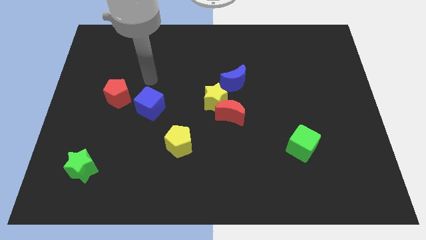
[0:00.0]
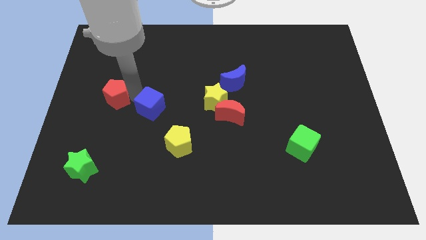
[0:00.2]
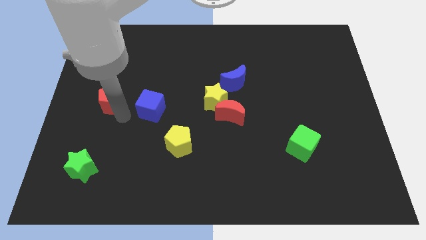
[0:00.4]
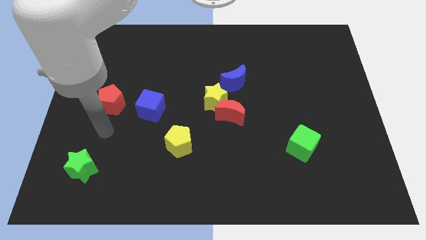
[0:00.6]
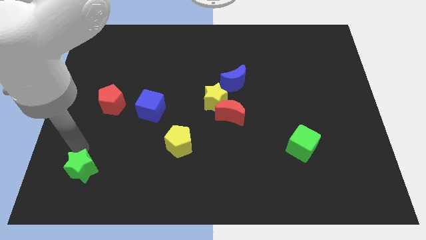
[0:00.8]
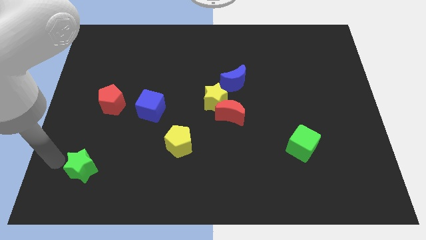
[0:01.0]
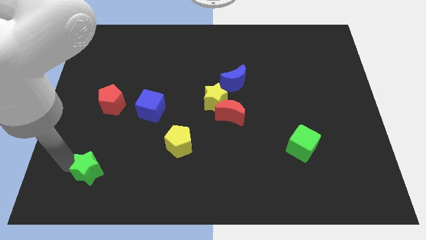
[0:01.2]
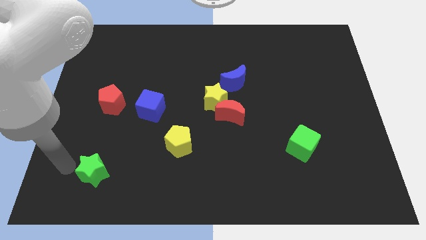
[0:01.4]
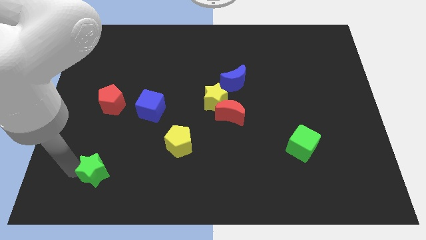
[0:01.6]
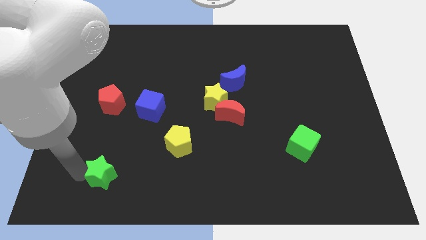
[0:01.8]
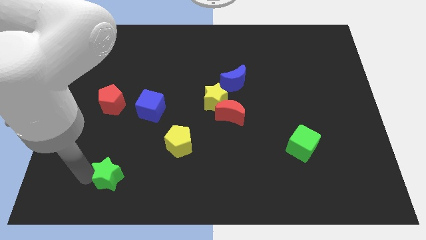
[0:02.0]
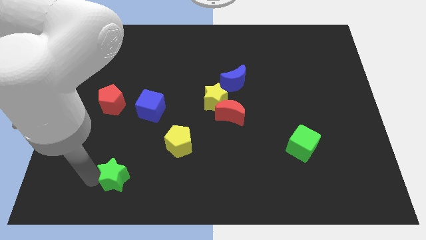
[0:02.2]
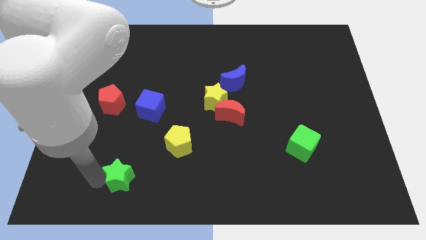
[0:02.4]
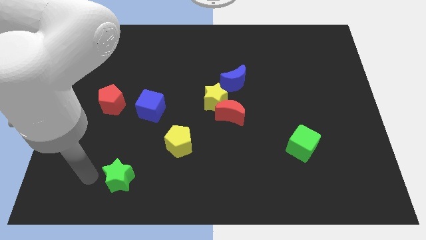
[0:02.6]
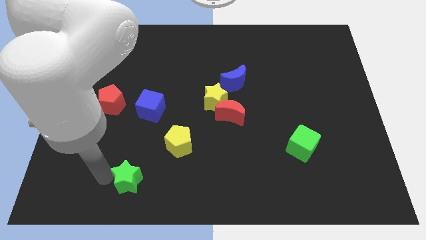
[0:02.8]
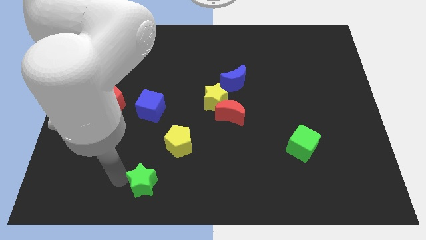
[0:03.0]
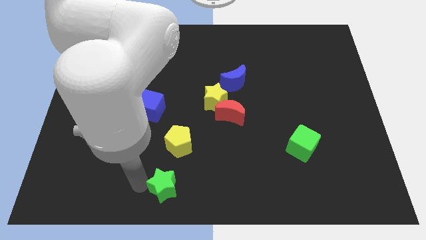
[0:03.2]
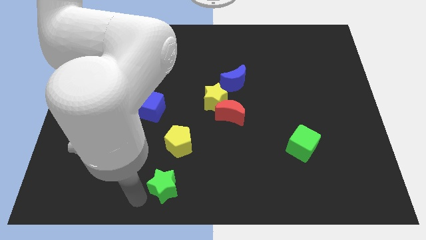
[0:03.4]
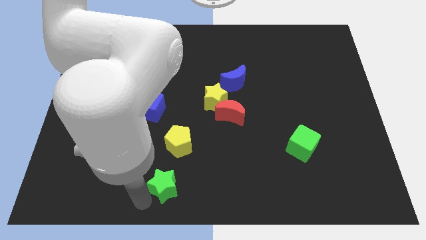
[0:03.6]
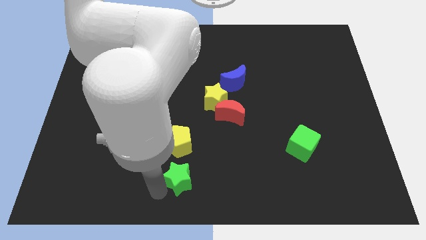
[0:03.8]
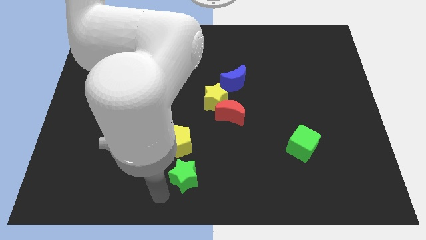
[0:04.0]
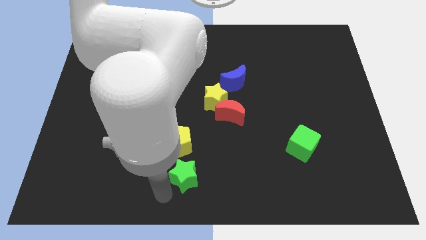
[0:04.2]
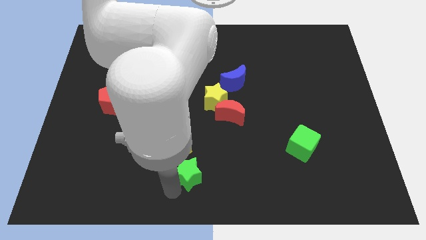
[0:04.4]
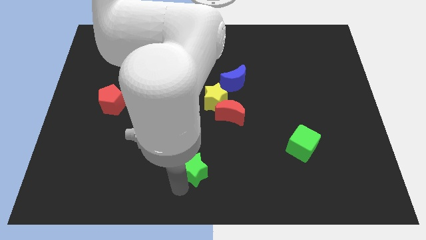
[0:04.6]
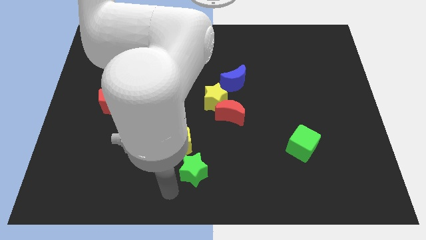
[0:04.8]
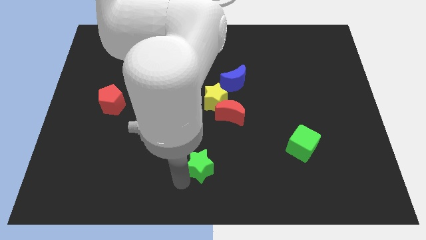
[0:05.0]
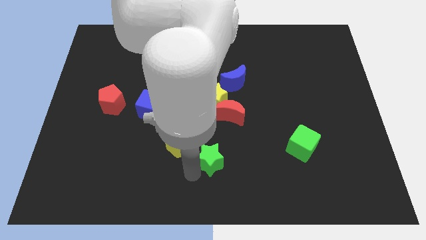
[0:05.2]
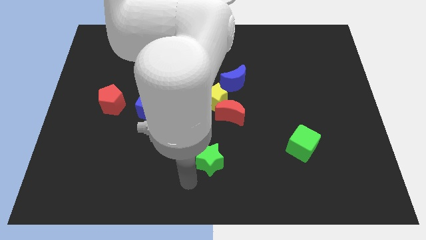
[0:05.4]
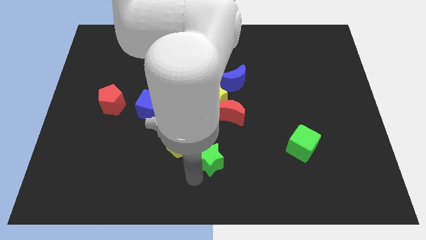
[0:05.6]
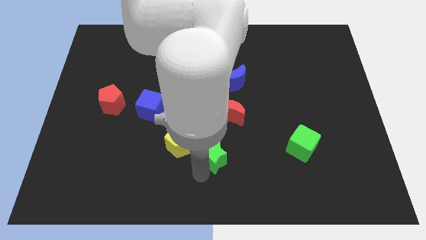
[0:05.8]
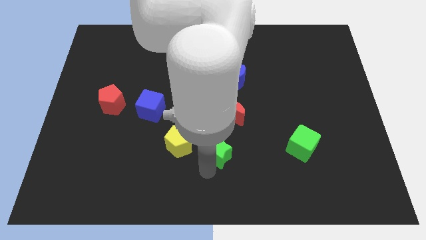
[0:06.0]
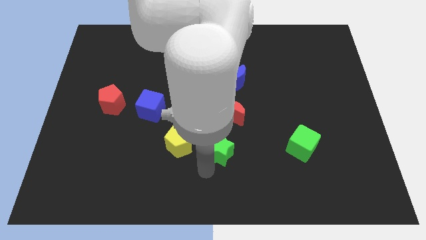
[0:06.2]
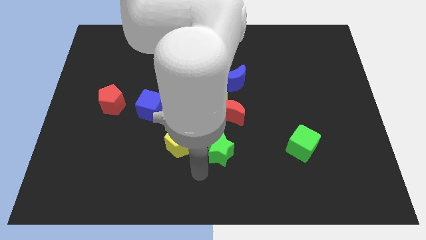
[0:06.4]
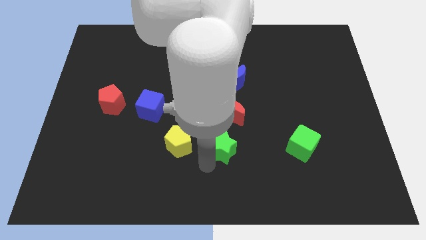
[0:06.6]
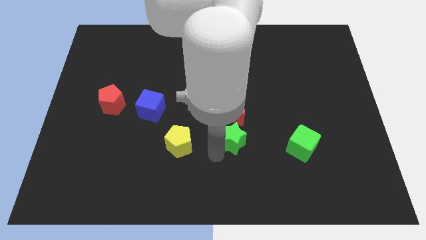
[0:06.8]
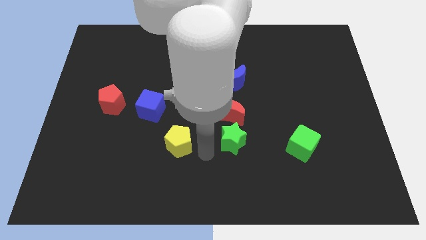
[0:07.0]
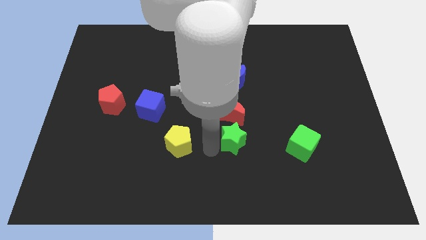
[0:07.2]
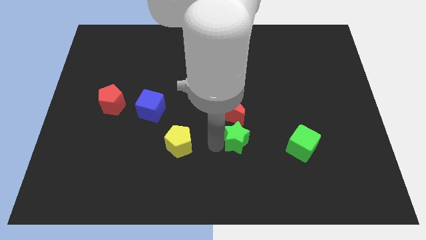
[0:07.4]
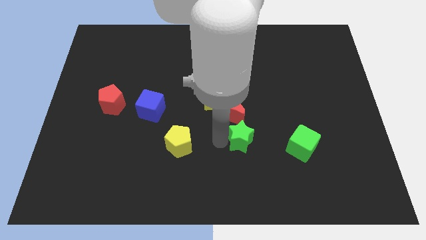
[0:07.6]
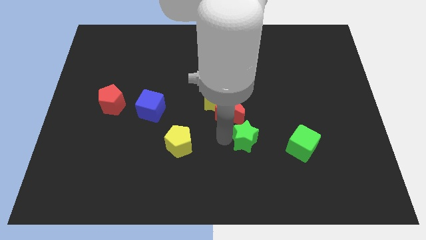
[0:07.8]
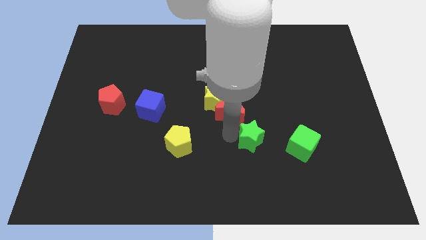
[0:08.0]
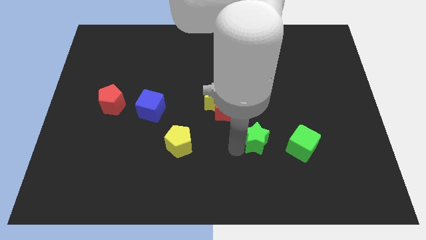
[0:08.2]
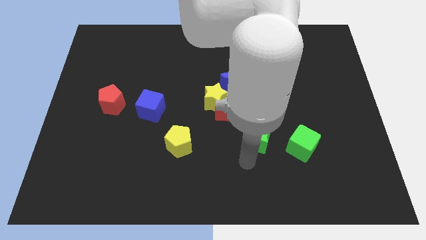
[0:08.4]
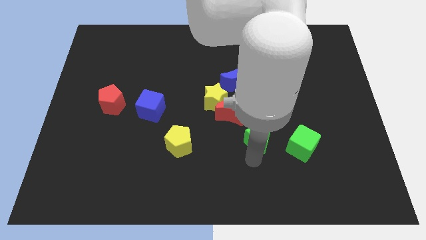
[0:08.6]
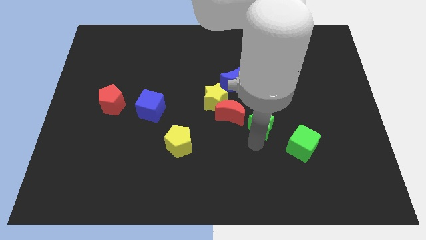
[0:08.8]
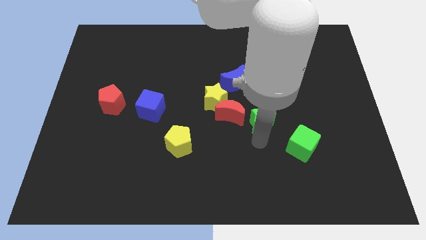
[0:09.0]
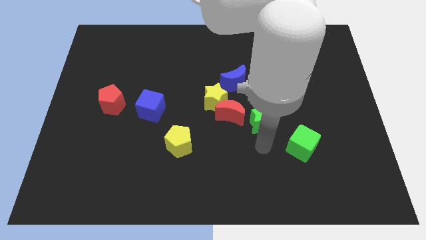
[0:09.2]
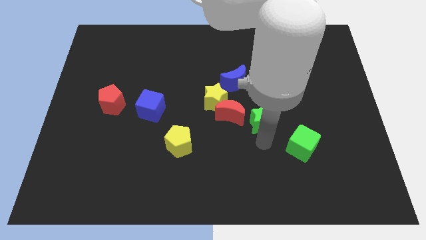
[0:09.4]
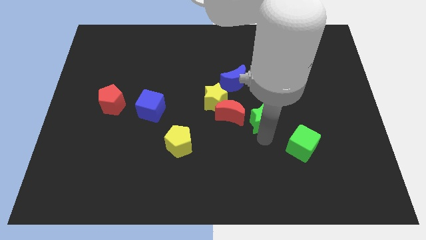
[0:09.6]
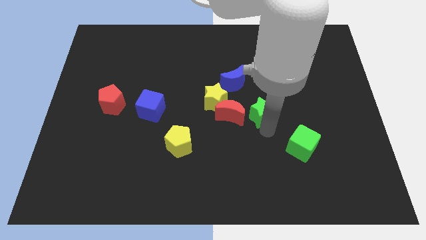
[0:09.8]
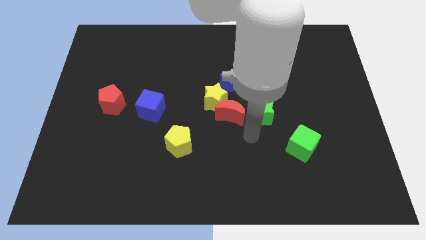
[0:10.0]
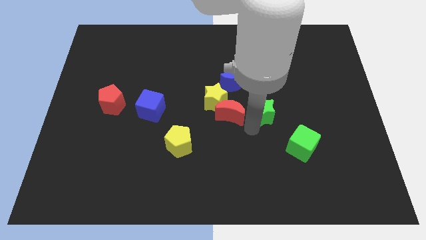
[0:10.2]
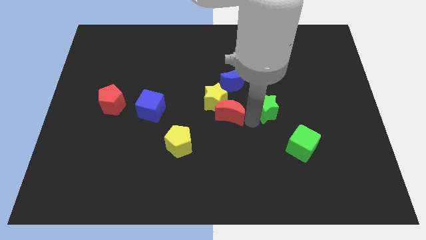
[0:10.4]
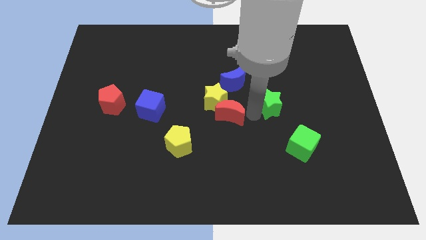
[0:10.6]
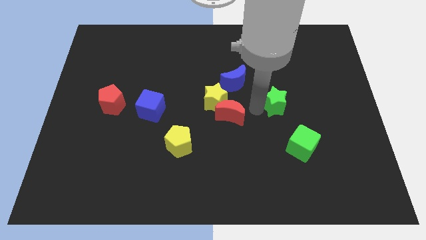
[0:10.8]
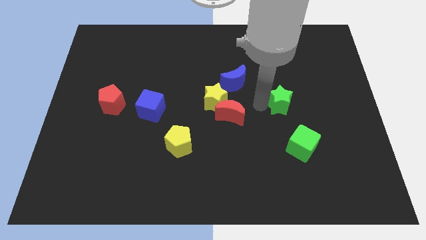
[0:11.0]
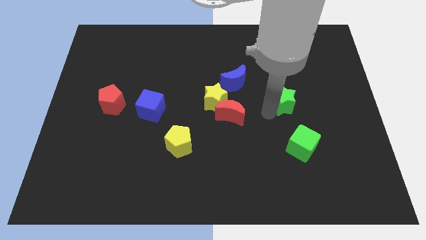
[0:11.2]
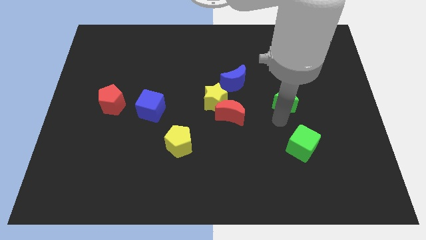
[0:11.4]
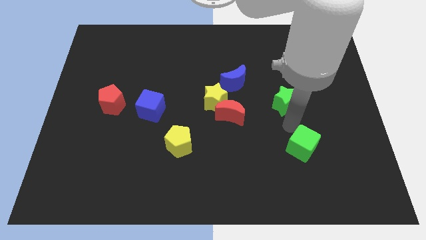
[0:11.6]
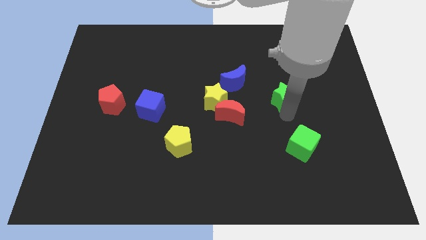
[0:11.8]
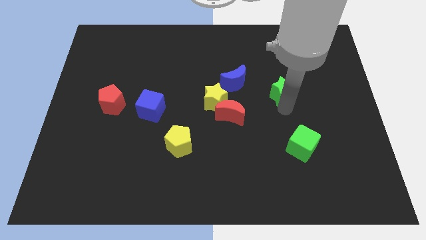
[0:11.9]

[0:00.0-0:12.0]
move the green star just right of the blue moon

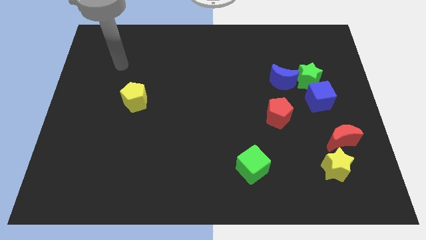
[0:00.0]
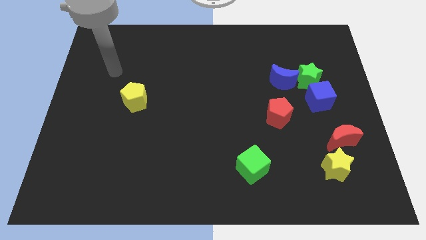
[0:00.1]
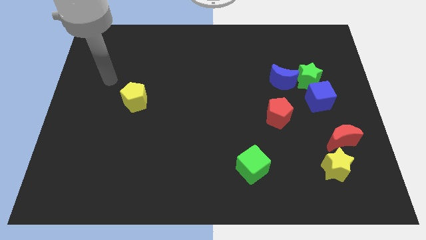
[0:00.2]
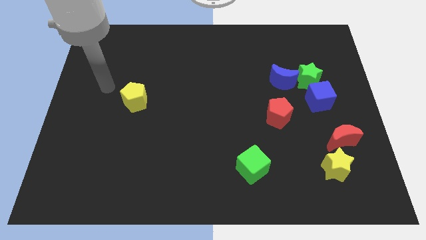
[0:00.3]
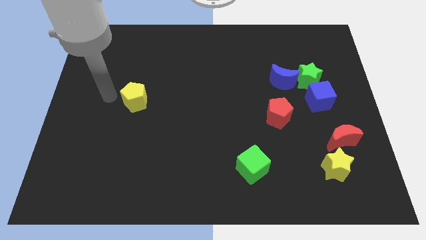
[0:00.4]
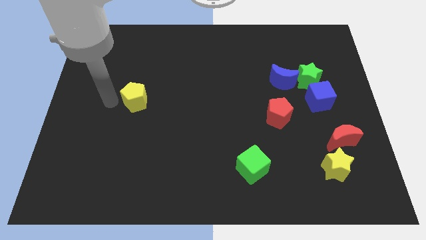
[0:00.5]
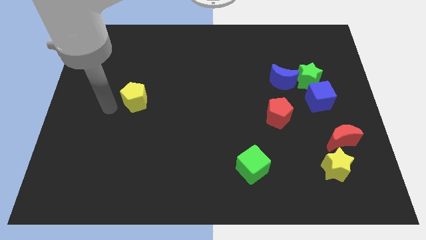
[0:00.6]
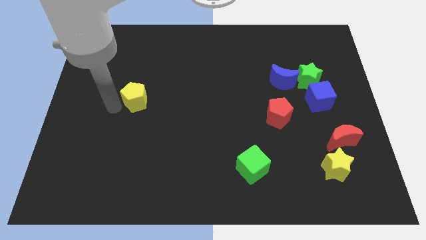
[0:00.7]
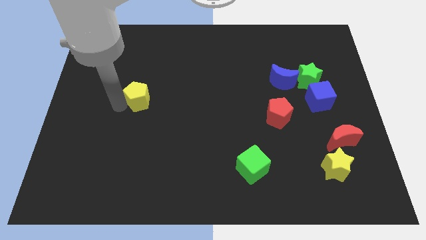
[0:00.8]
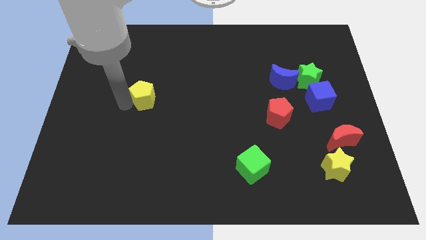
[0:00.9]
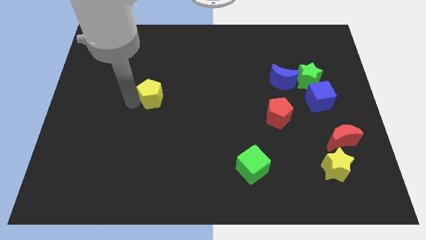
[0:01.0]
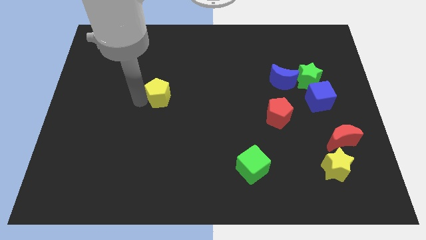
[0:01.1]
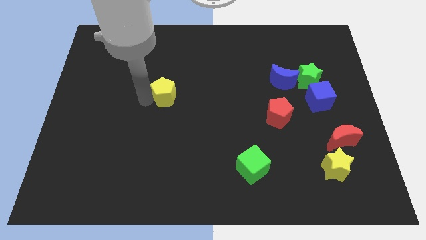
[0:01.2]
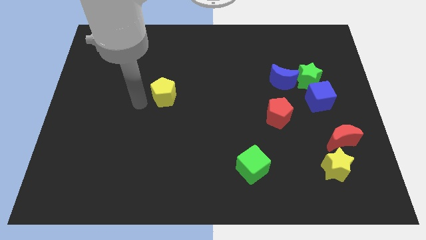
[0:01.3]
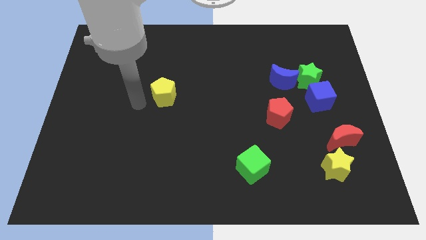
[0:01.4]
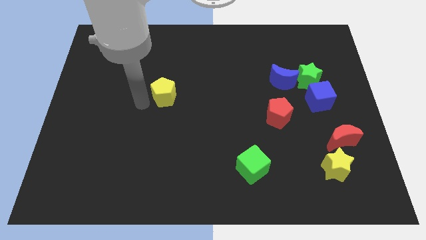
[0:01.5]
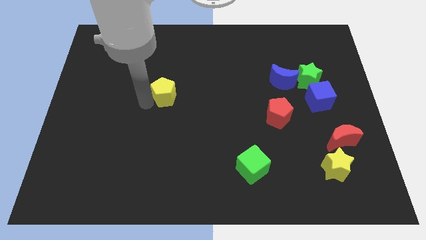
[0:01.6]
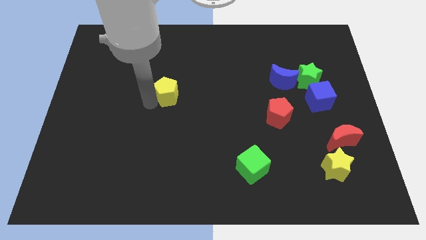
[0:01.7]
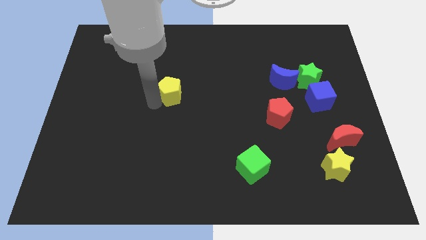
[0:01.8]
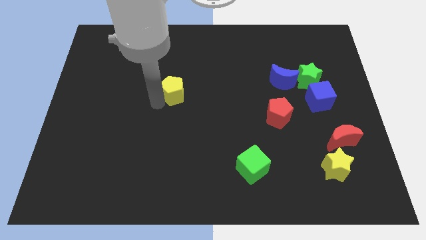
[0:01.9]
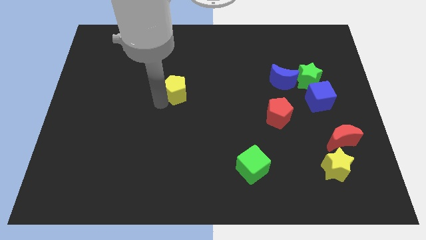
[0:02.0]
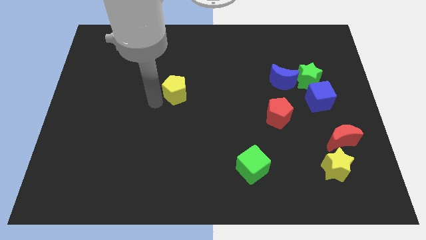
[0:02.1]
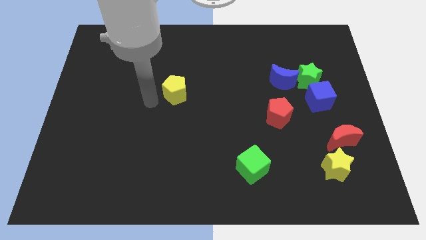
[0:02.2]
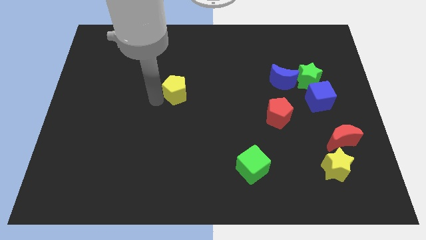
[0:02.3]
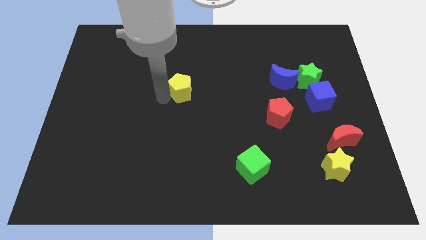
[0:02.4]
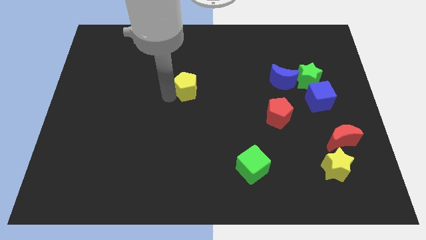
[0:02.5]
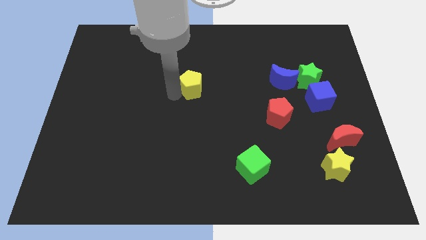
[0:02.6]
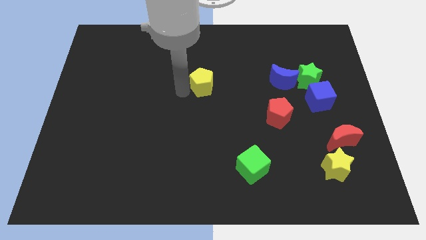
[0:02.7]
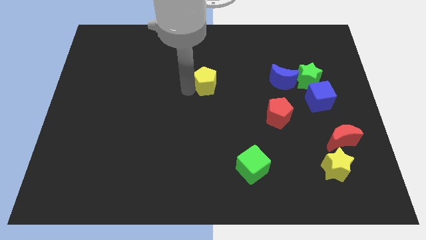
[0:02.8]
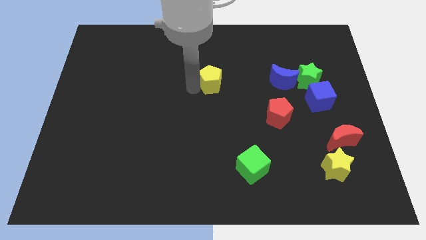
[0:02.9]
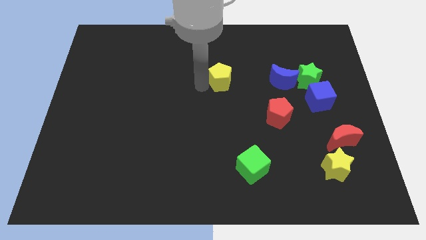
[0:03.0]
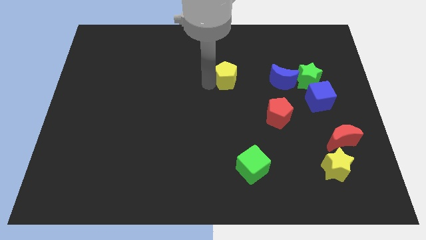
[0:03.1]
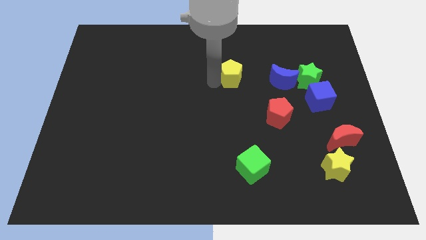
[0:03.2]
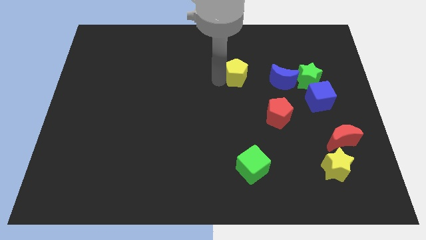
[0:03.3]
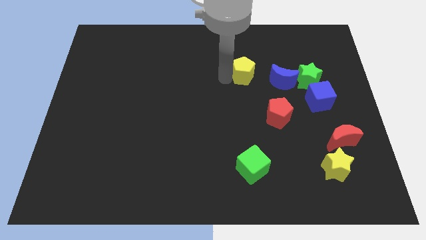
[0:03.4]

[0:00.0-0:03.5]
move the yellow pentagon just left of the green star
